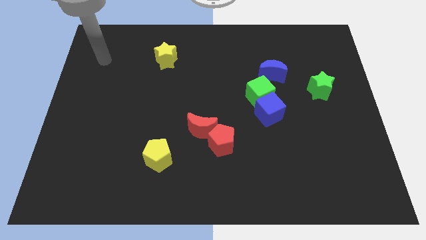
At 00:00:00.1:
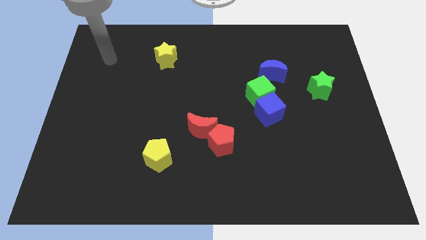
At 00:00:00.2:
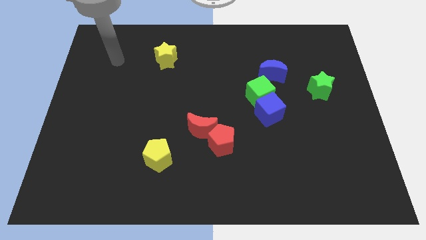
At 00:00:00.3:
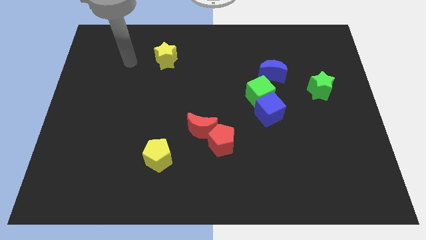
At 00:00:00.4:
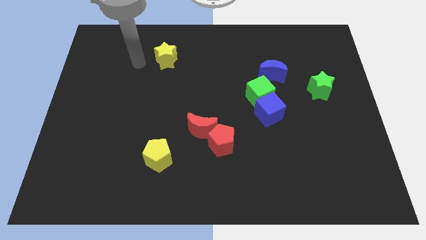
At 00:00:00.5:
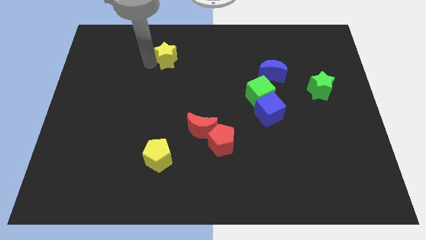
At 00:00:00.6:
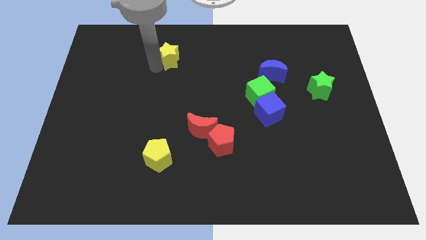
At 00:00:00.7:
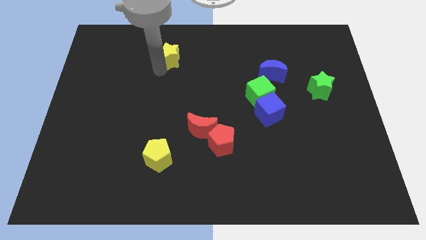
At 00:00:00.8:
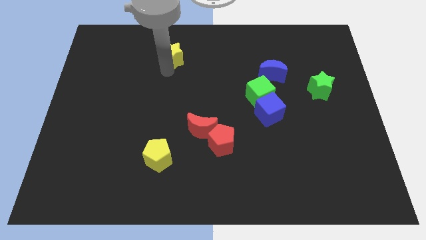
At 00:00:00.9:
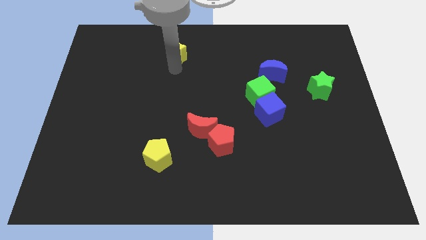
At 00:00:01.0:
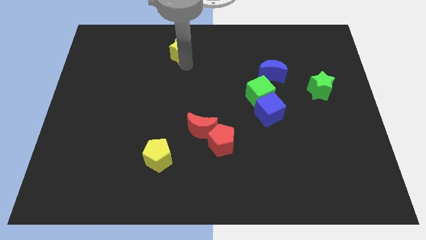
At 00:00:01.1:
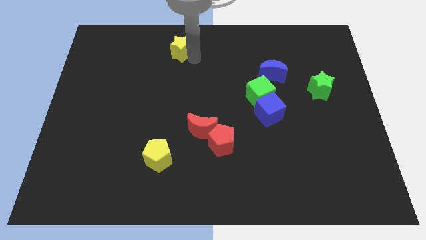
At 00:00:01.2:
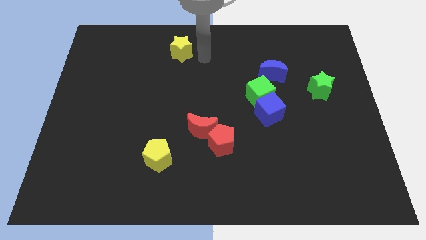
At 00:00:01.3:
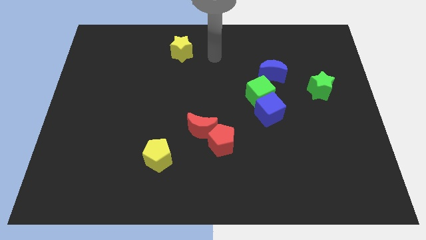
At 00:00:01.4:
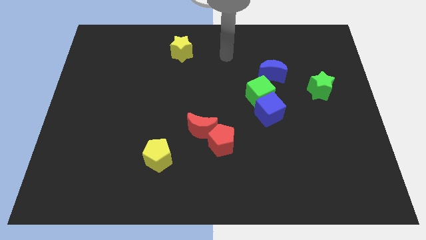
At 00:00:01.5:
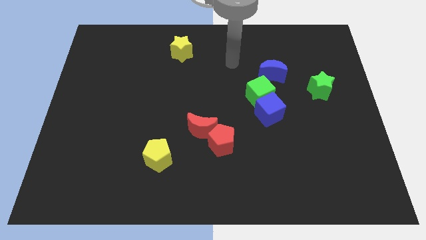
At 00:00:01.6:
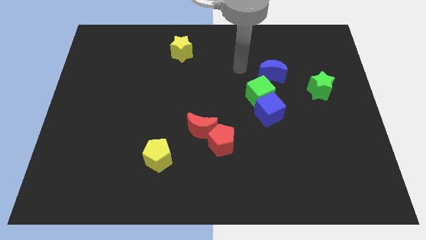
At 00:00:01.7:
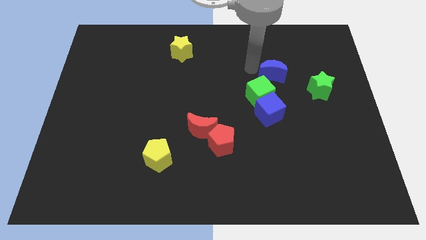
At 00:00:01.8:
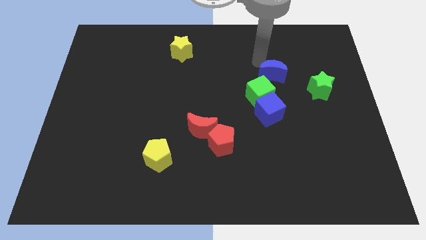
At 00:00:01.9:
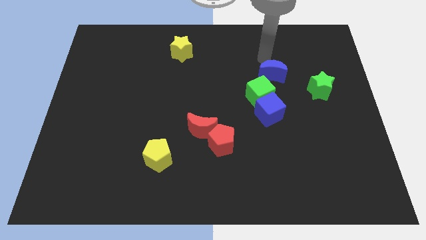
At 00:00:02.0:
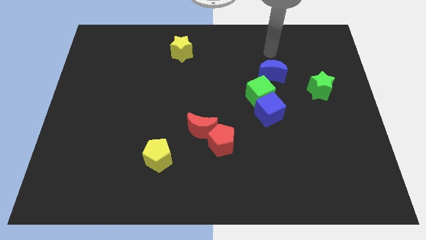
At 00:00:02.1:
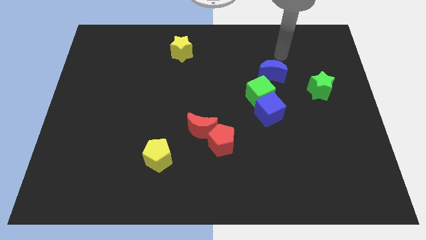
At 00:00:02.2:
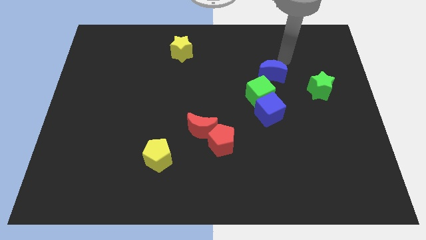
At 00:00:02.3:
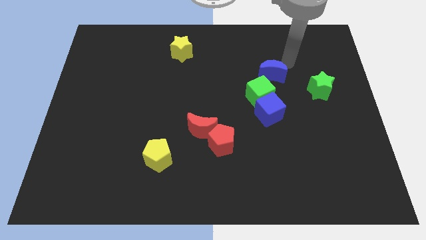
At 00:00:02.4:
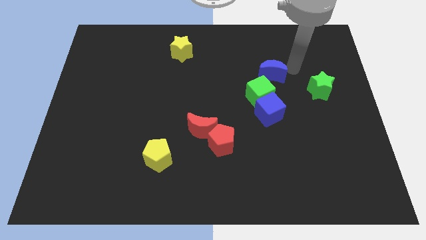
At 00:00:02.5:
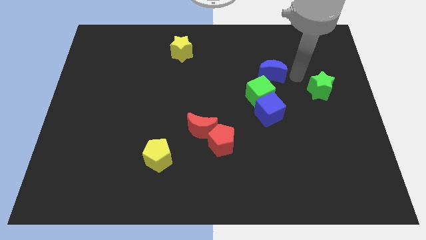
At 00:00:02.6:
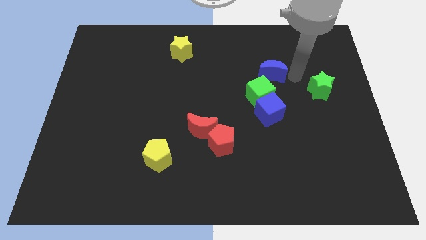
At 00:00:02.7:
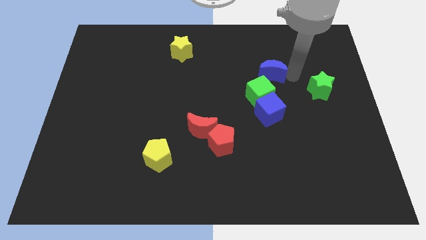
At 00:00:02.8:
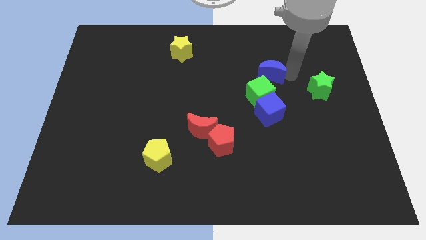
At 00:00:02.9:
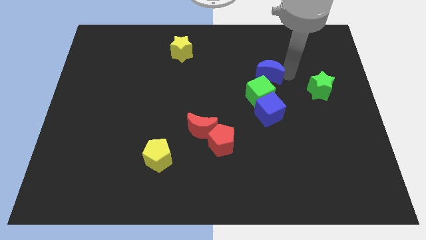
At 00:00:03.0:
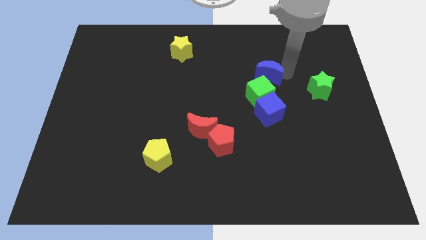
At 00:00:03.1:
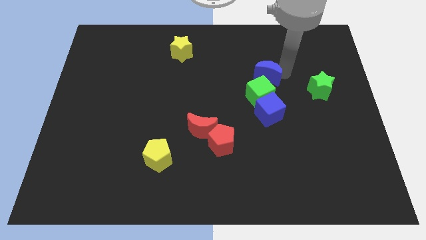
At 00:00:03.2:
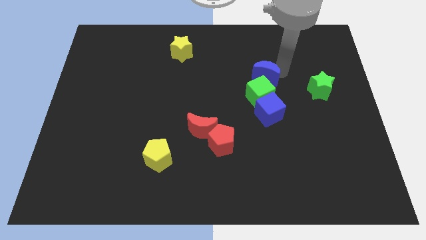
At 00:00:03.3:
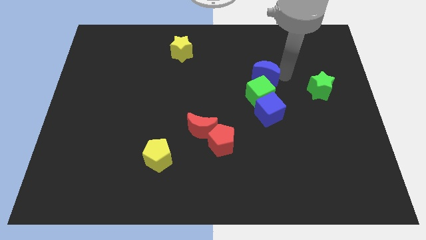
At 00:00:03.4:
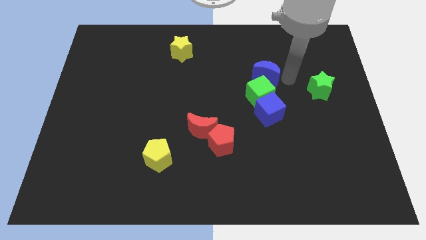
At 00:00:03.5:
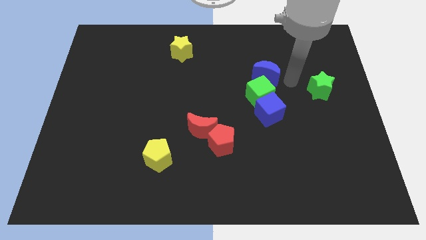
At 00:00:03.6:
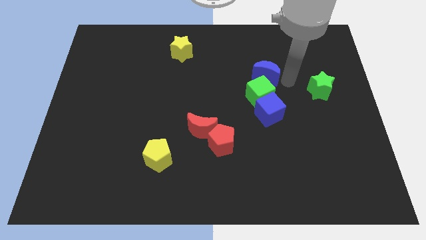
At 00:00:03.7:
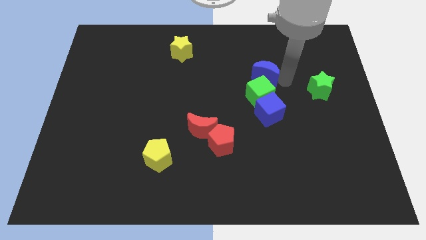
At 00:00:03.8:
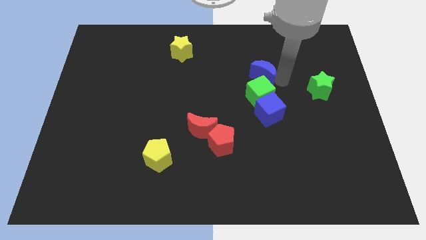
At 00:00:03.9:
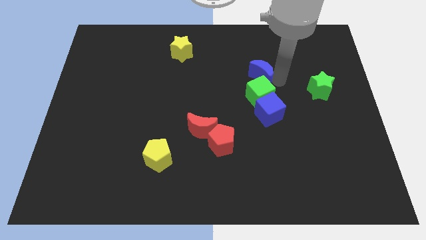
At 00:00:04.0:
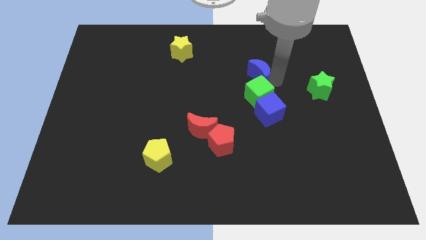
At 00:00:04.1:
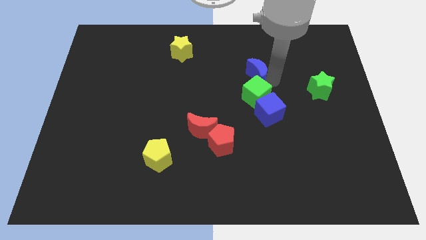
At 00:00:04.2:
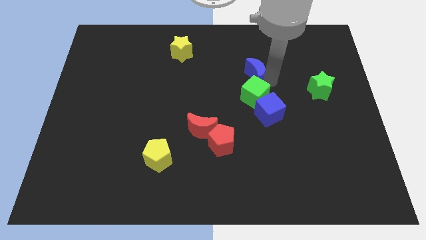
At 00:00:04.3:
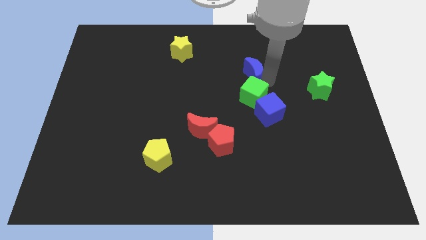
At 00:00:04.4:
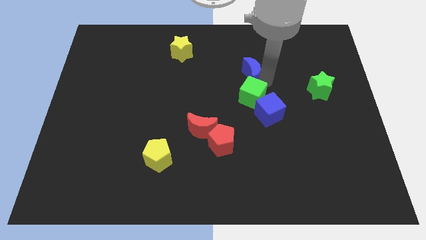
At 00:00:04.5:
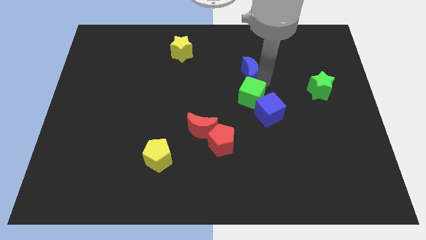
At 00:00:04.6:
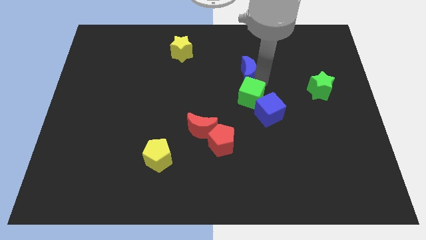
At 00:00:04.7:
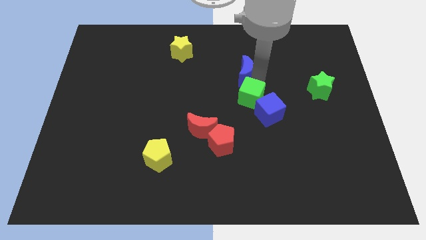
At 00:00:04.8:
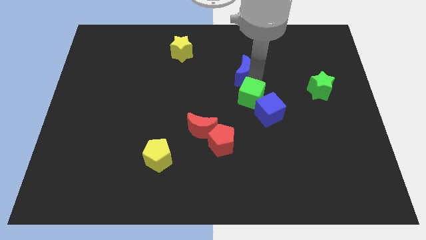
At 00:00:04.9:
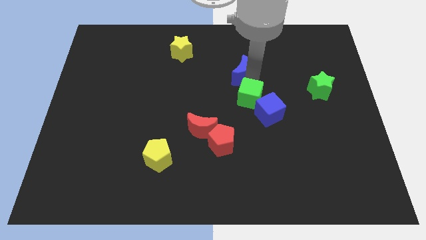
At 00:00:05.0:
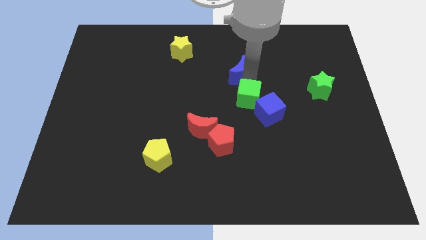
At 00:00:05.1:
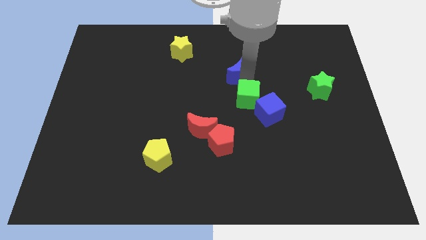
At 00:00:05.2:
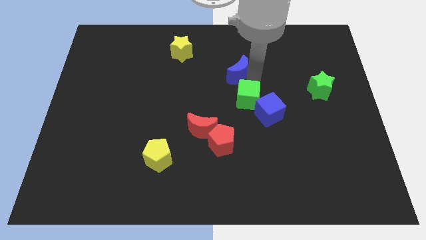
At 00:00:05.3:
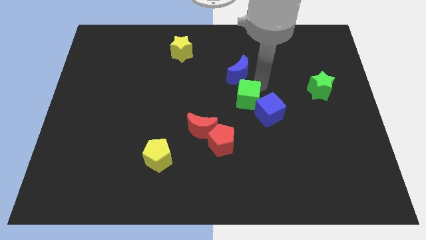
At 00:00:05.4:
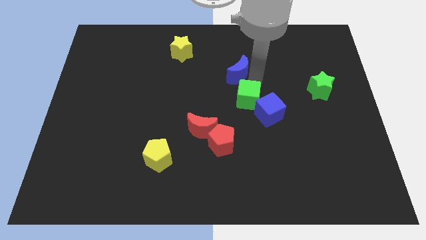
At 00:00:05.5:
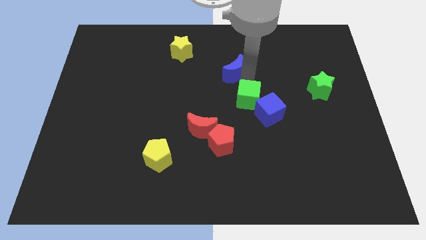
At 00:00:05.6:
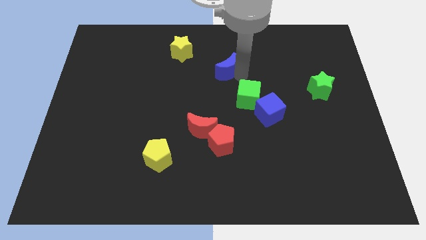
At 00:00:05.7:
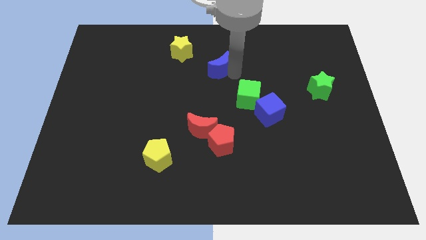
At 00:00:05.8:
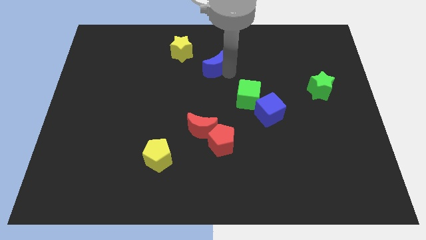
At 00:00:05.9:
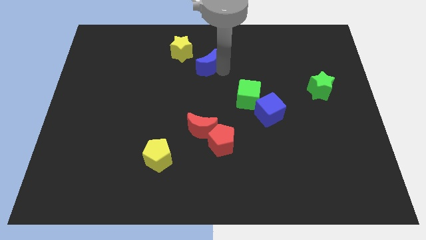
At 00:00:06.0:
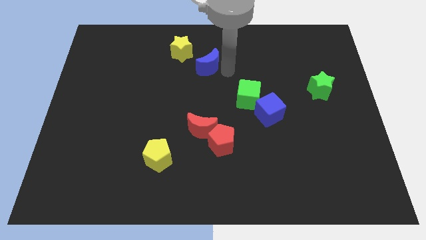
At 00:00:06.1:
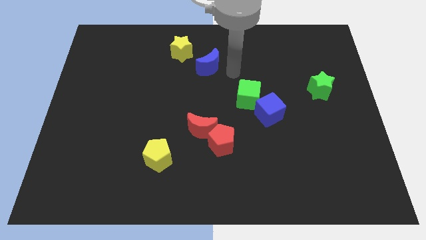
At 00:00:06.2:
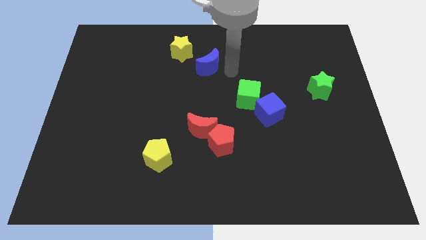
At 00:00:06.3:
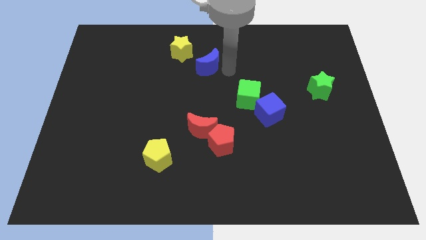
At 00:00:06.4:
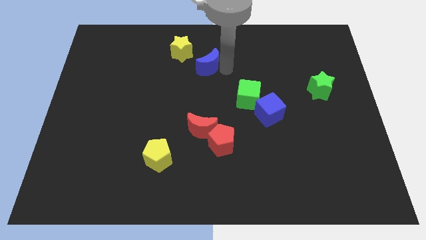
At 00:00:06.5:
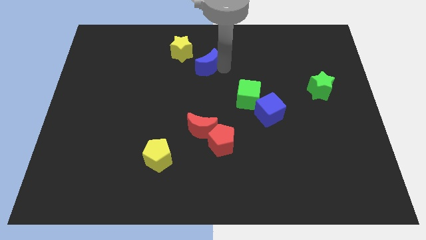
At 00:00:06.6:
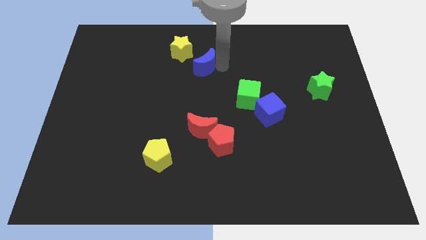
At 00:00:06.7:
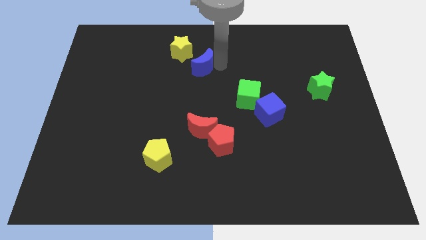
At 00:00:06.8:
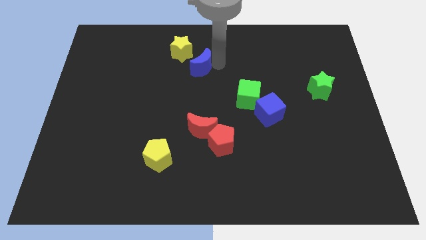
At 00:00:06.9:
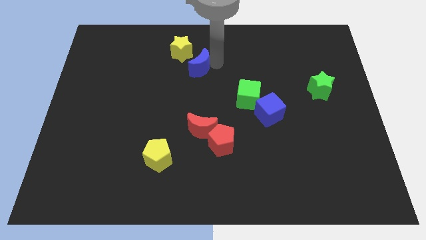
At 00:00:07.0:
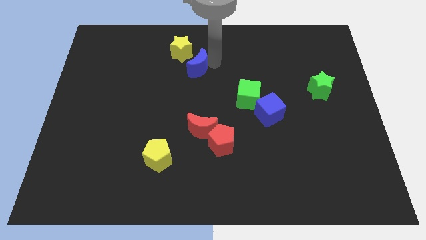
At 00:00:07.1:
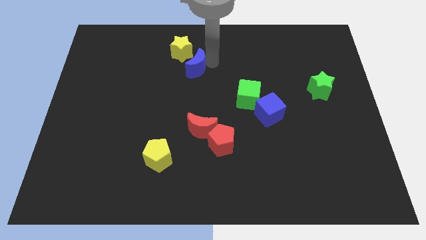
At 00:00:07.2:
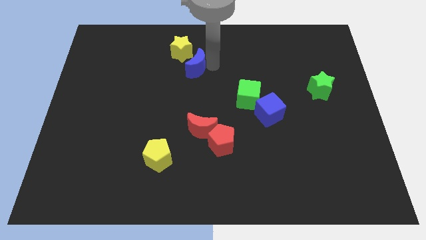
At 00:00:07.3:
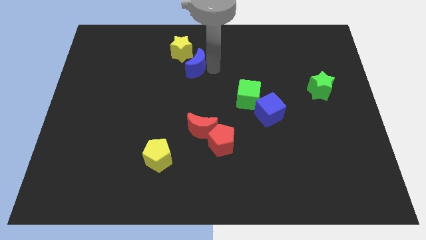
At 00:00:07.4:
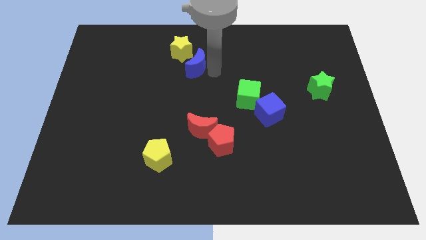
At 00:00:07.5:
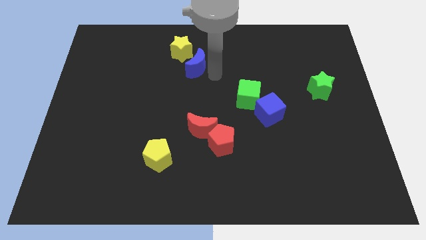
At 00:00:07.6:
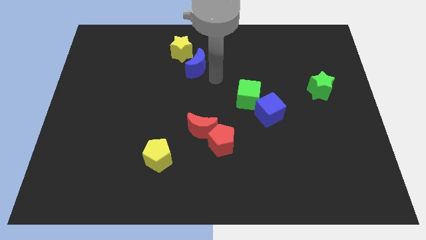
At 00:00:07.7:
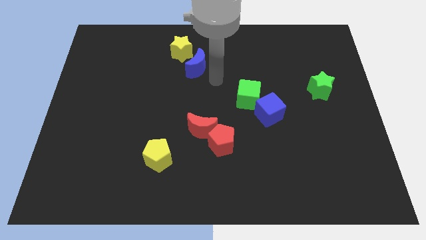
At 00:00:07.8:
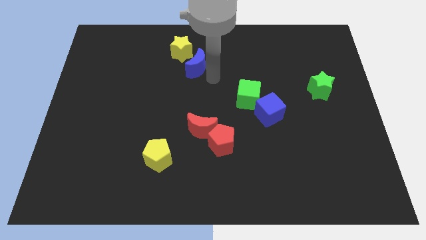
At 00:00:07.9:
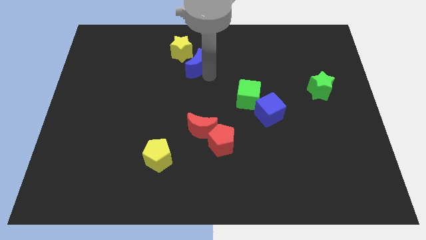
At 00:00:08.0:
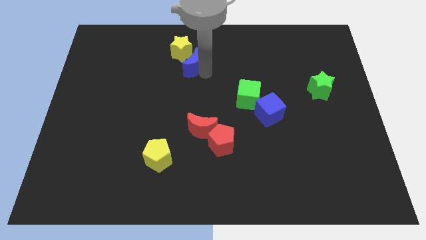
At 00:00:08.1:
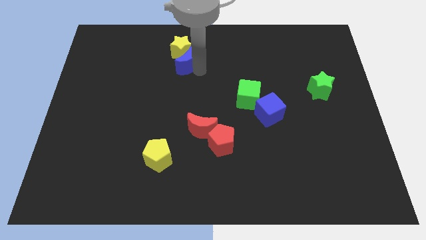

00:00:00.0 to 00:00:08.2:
push the blue moon to the yellow star
